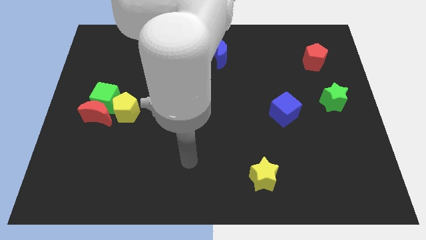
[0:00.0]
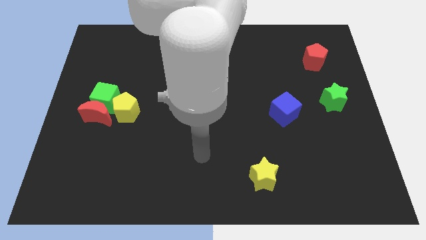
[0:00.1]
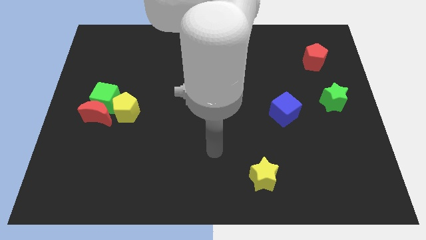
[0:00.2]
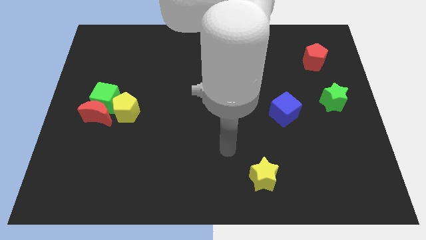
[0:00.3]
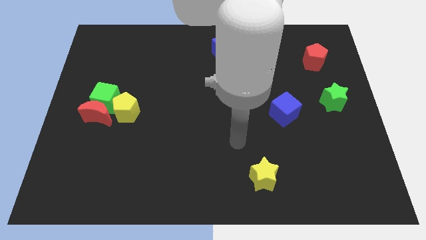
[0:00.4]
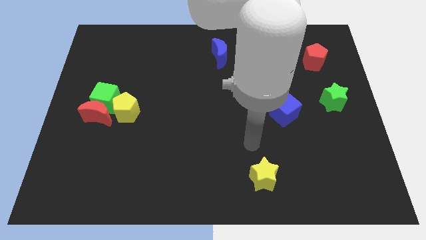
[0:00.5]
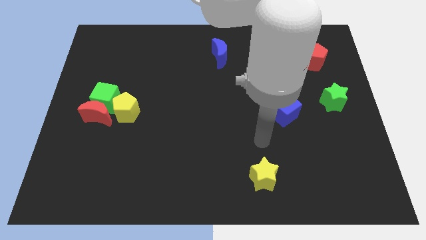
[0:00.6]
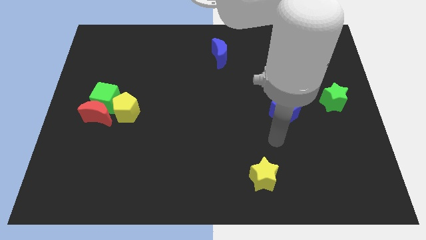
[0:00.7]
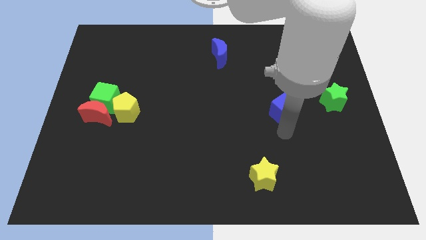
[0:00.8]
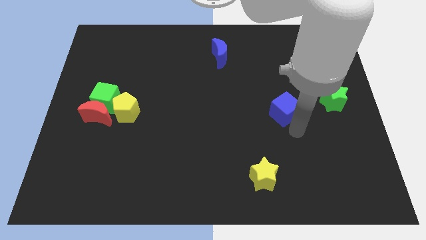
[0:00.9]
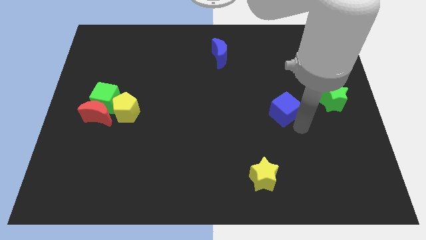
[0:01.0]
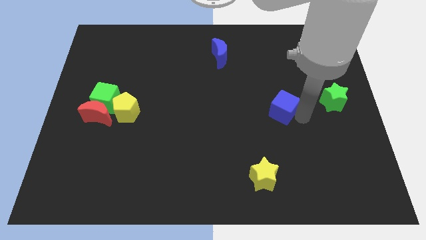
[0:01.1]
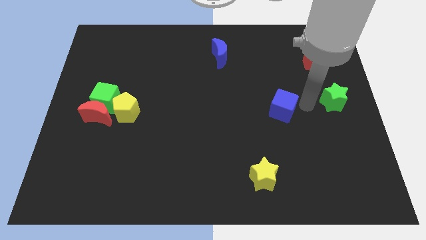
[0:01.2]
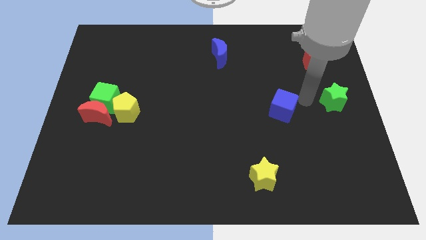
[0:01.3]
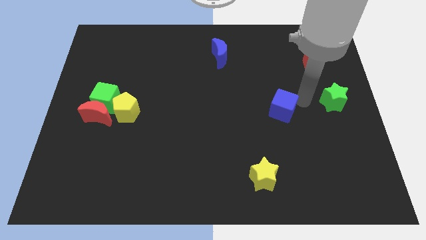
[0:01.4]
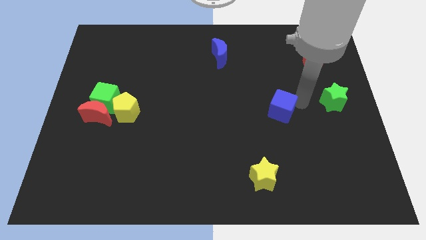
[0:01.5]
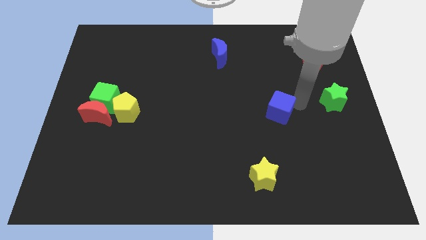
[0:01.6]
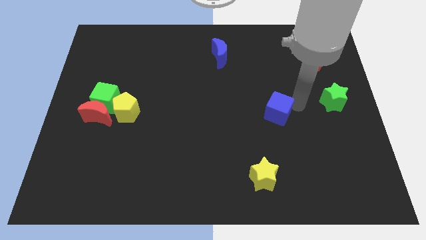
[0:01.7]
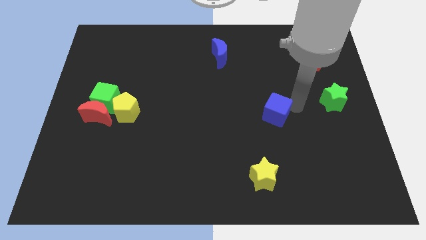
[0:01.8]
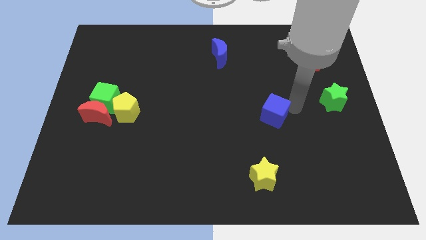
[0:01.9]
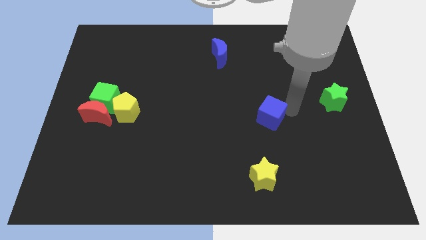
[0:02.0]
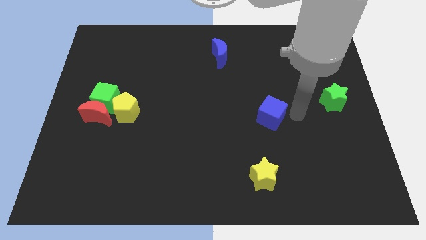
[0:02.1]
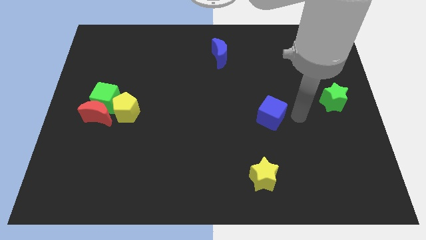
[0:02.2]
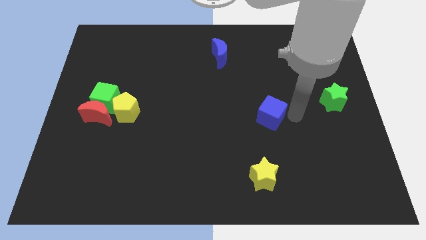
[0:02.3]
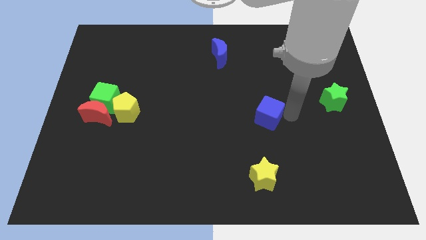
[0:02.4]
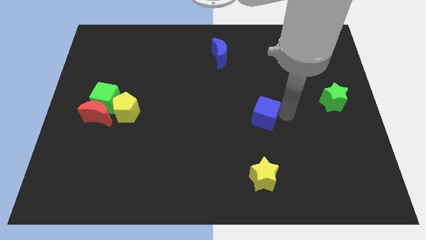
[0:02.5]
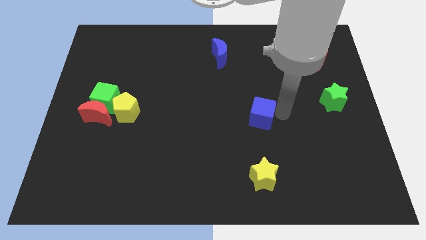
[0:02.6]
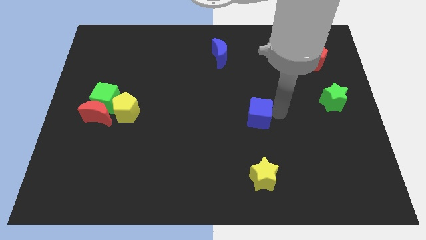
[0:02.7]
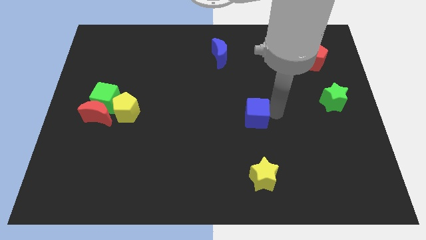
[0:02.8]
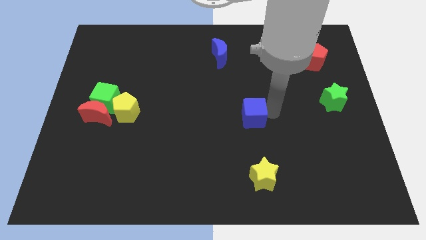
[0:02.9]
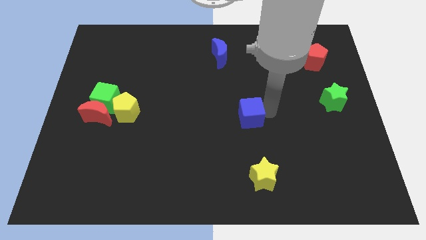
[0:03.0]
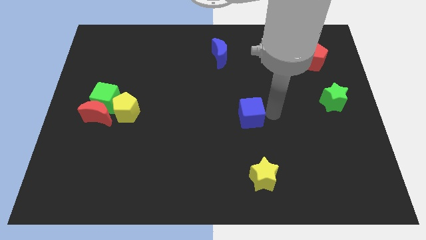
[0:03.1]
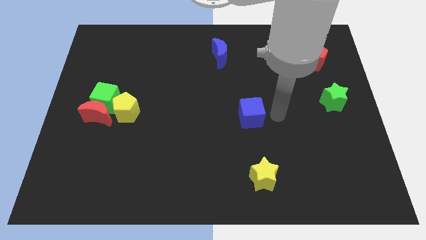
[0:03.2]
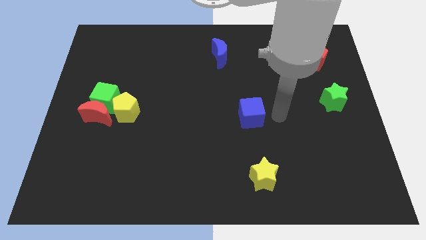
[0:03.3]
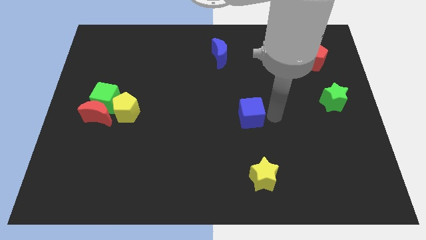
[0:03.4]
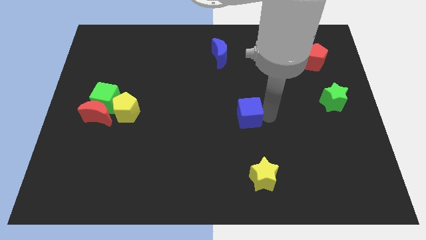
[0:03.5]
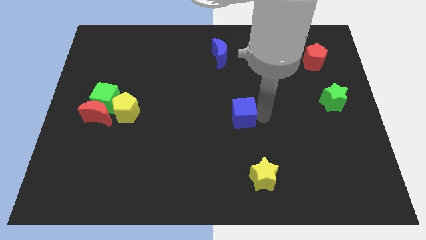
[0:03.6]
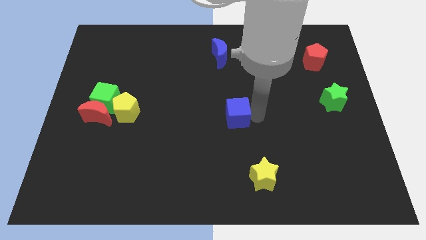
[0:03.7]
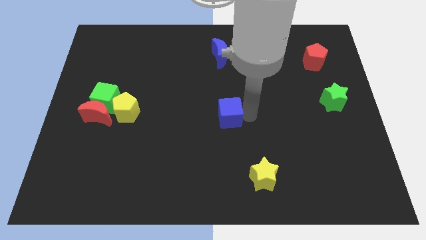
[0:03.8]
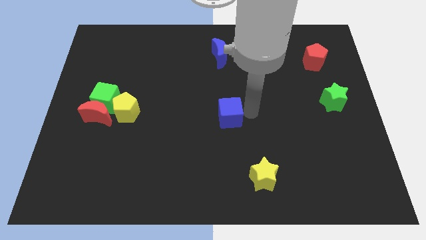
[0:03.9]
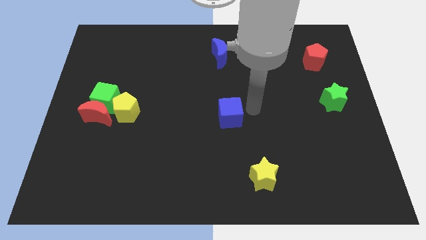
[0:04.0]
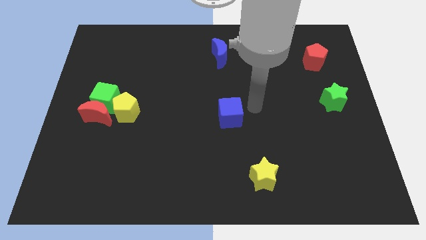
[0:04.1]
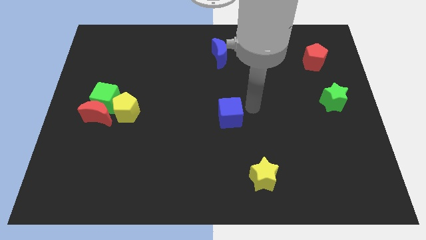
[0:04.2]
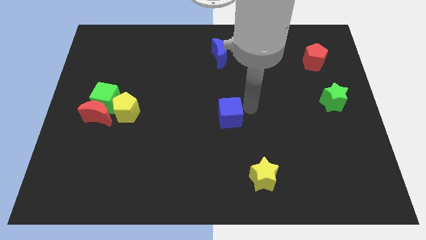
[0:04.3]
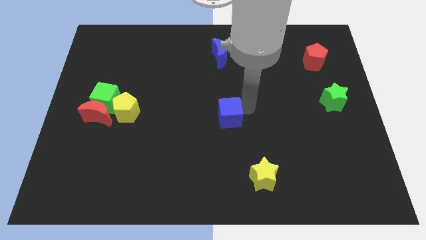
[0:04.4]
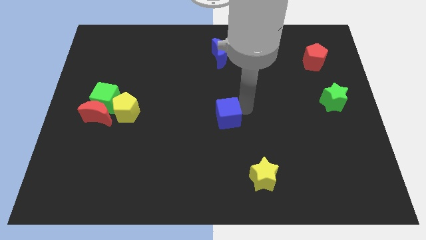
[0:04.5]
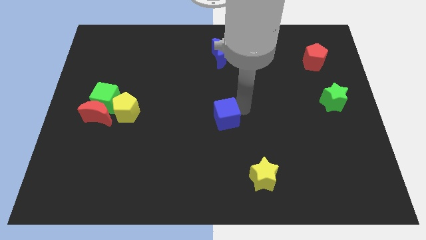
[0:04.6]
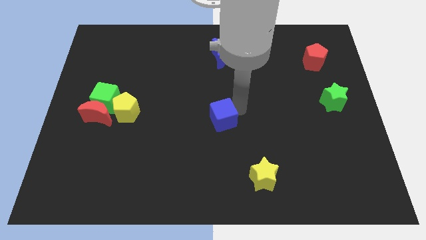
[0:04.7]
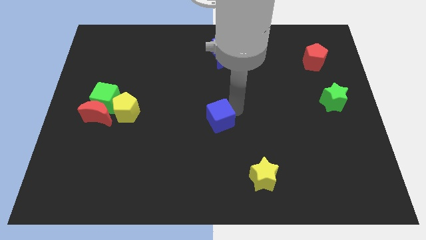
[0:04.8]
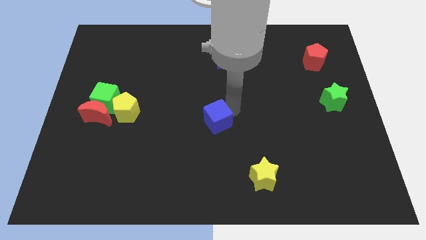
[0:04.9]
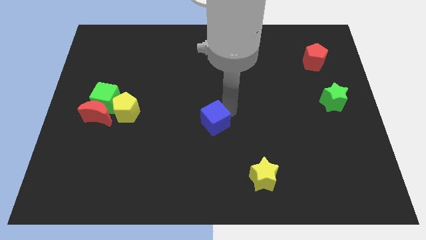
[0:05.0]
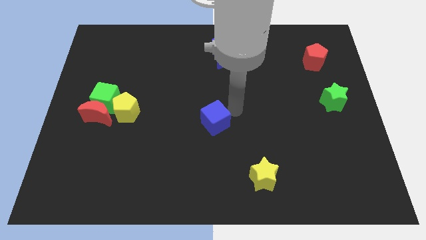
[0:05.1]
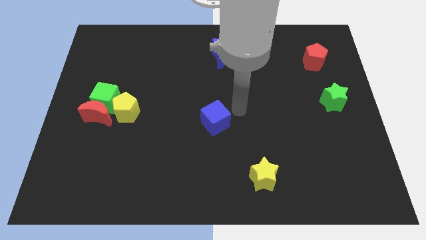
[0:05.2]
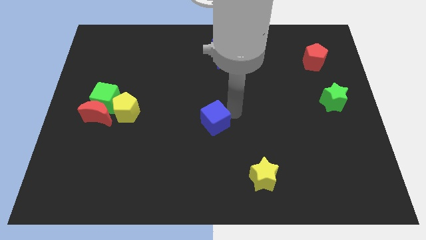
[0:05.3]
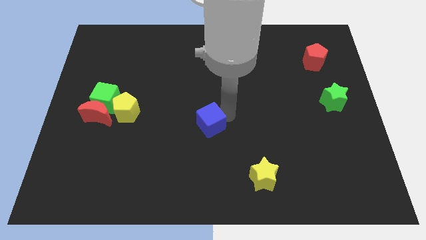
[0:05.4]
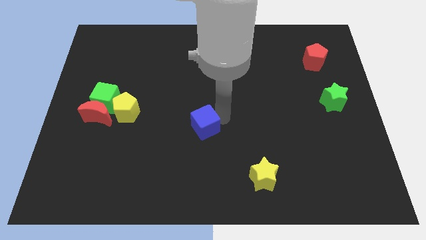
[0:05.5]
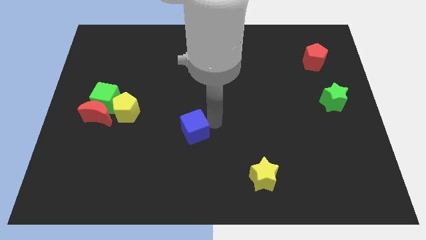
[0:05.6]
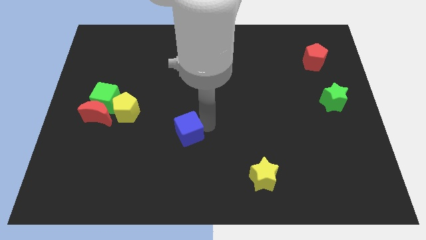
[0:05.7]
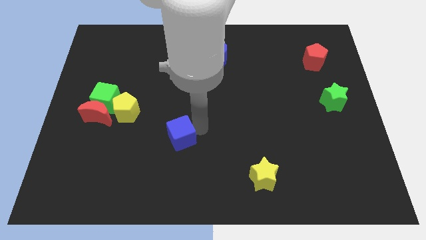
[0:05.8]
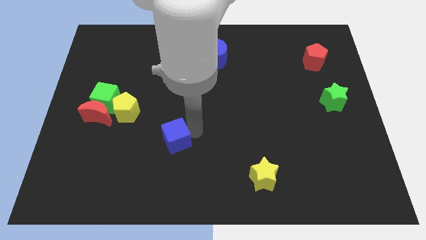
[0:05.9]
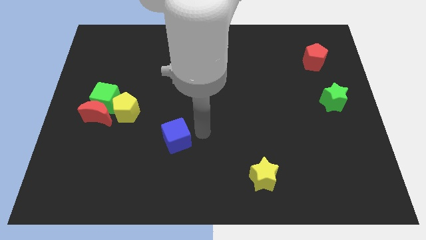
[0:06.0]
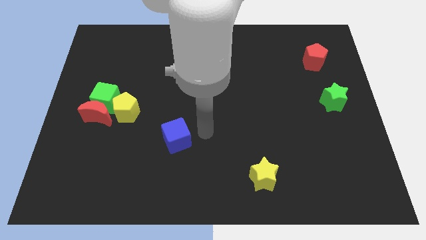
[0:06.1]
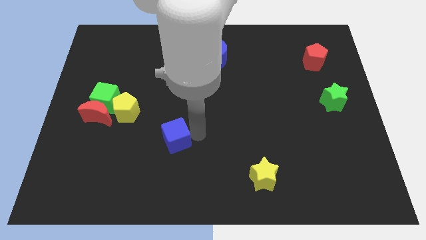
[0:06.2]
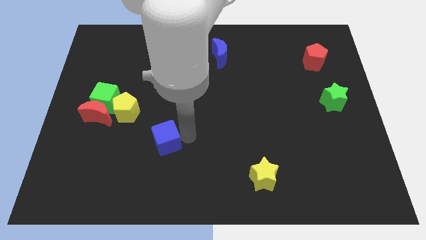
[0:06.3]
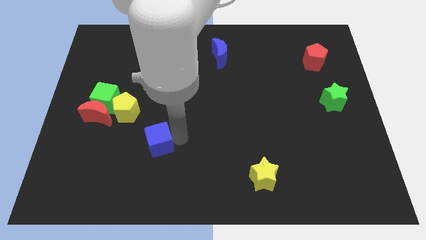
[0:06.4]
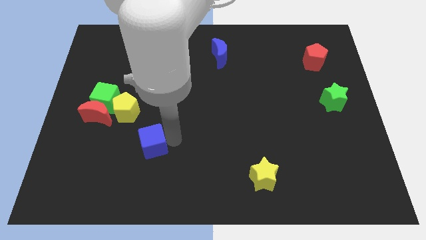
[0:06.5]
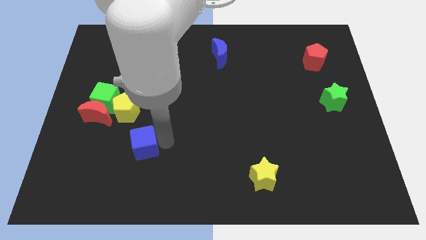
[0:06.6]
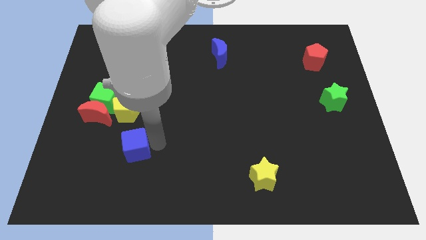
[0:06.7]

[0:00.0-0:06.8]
slide the blue cube to the bottom of the yellow pentagon
